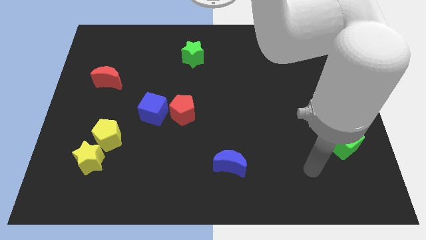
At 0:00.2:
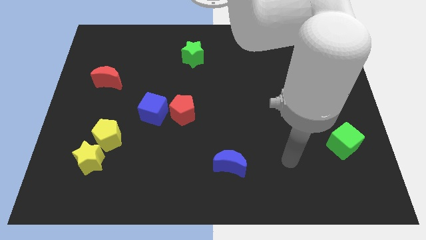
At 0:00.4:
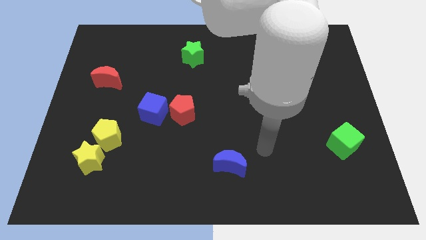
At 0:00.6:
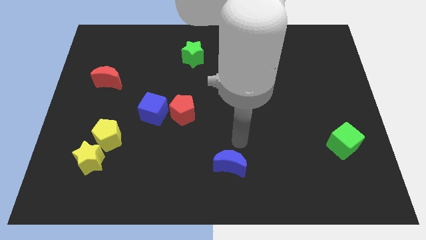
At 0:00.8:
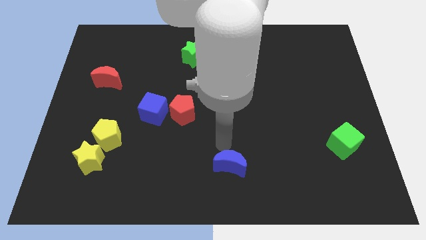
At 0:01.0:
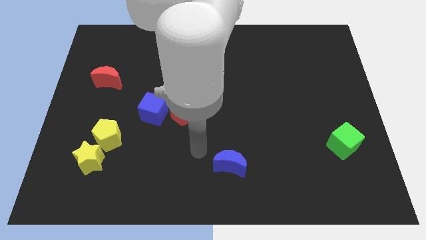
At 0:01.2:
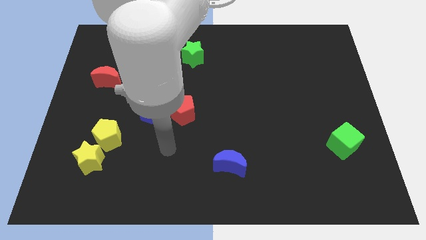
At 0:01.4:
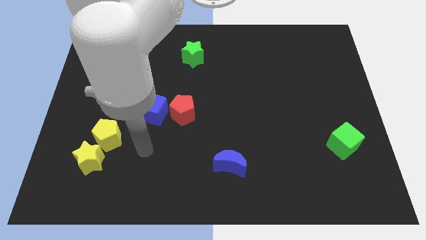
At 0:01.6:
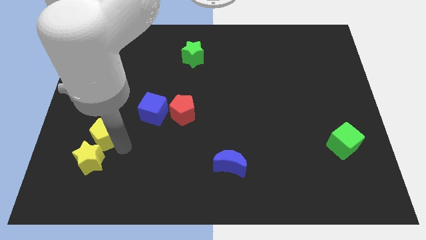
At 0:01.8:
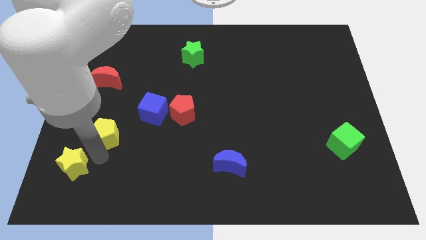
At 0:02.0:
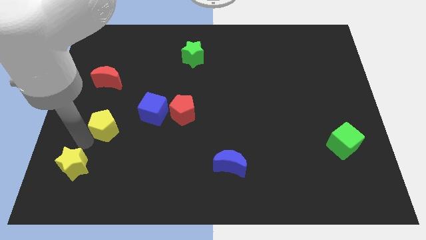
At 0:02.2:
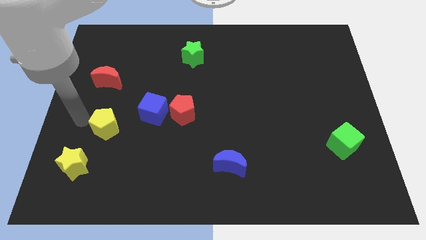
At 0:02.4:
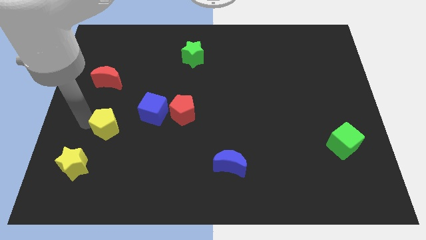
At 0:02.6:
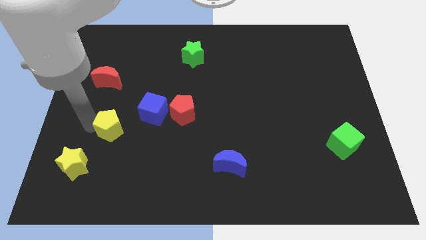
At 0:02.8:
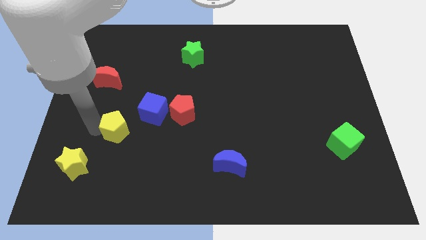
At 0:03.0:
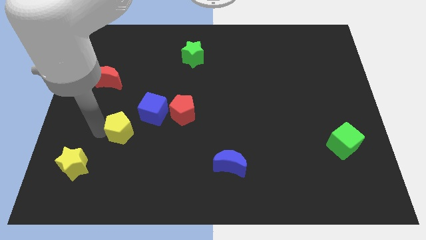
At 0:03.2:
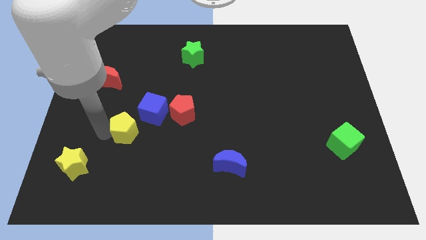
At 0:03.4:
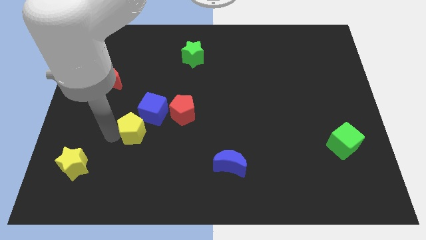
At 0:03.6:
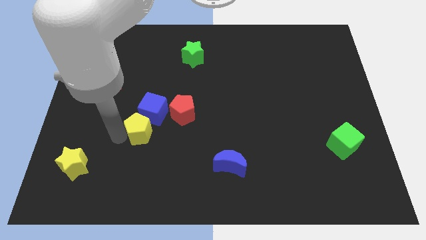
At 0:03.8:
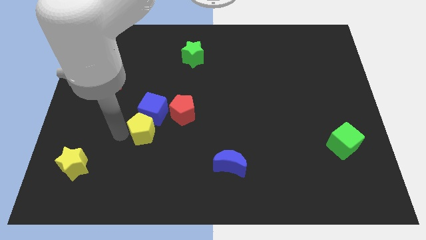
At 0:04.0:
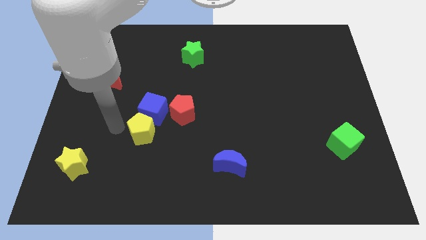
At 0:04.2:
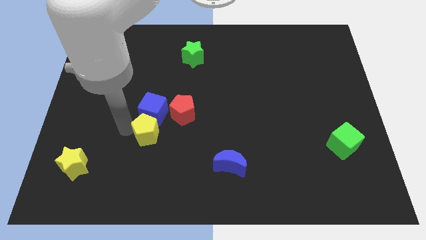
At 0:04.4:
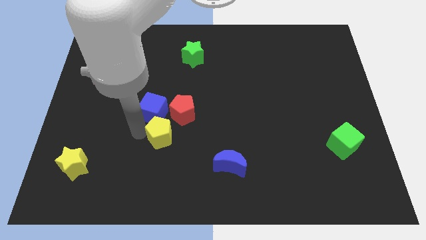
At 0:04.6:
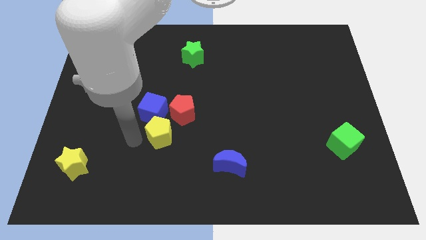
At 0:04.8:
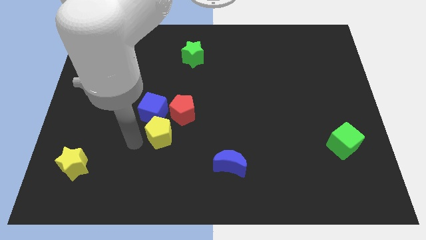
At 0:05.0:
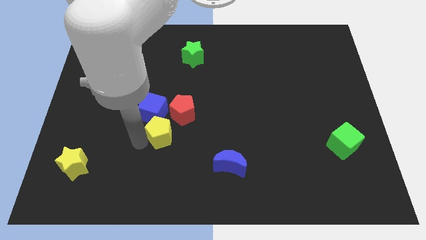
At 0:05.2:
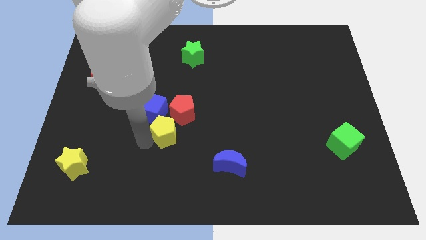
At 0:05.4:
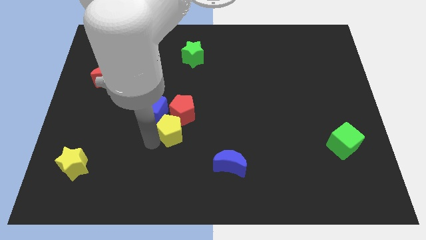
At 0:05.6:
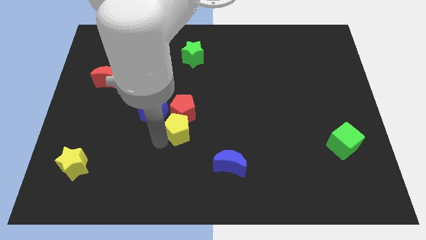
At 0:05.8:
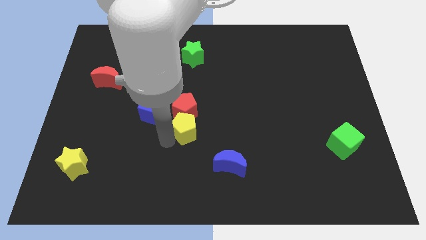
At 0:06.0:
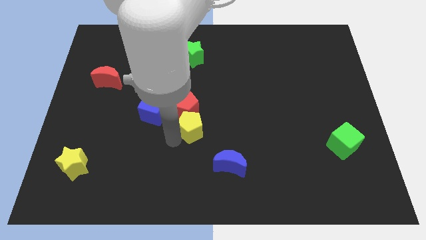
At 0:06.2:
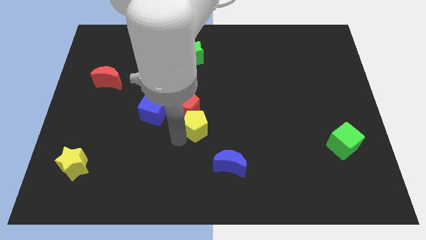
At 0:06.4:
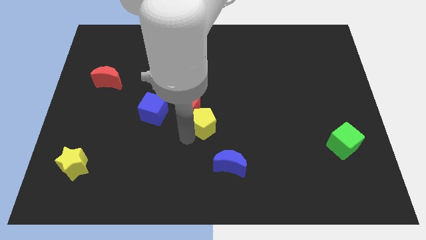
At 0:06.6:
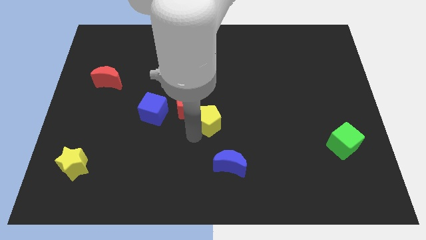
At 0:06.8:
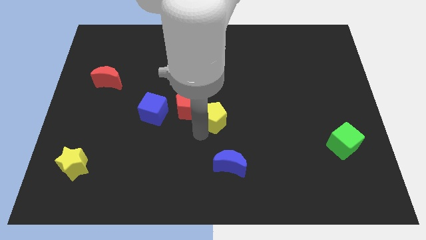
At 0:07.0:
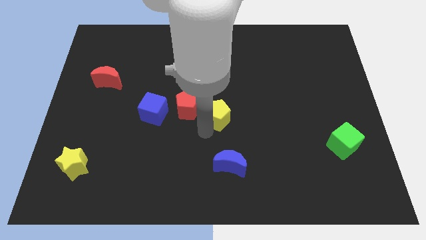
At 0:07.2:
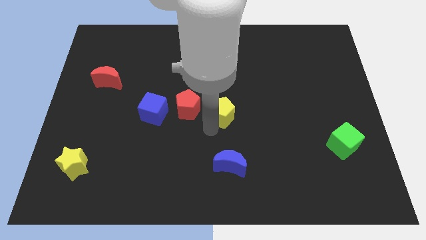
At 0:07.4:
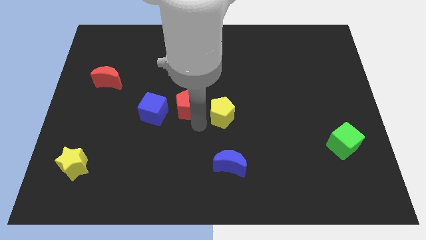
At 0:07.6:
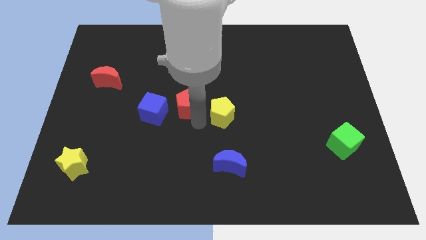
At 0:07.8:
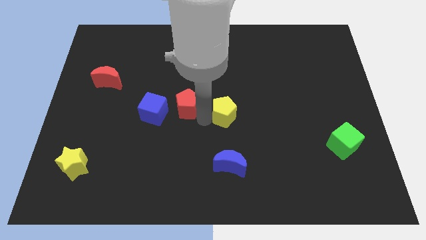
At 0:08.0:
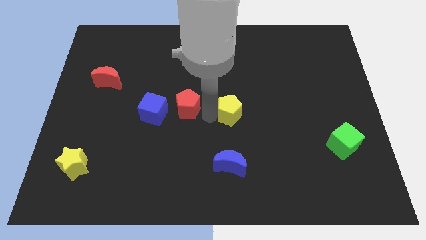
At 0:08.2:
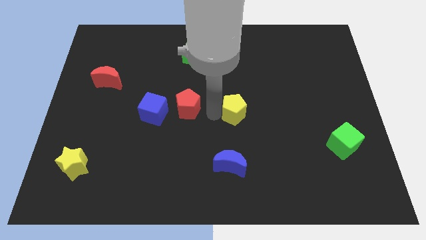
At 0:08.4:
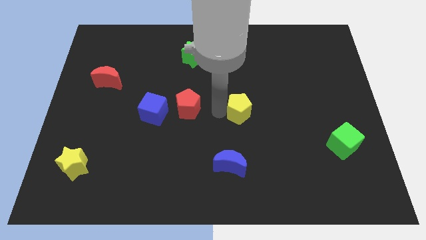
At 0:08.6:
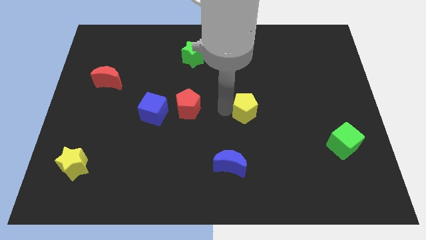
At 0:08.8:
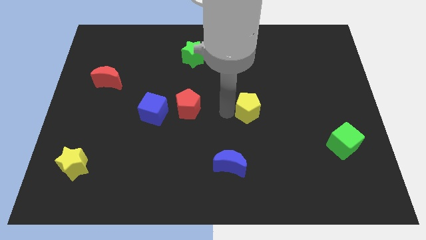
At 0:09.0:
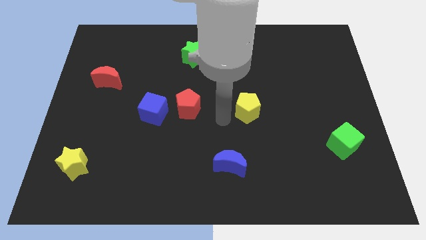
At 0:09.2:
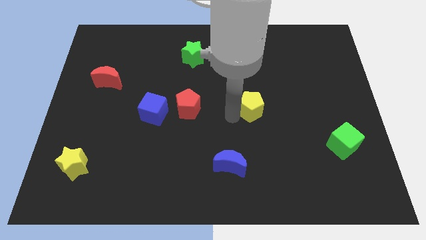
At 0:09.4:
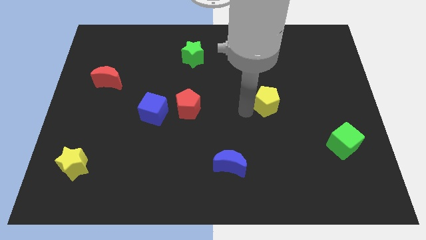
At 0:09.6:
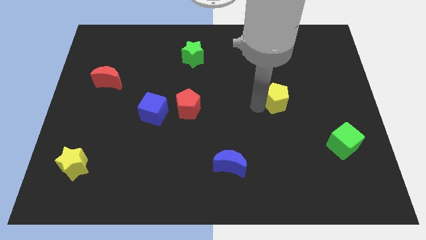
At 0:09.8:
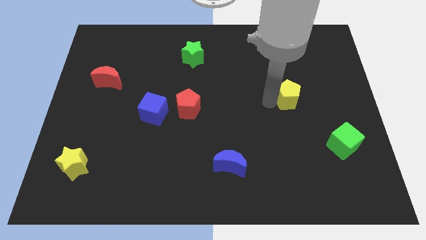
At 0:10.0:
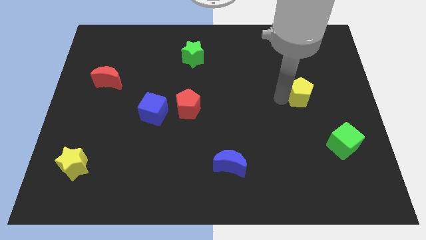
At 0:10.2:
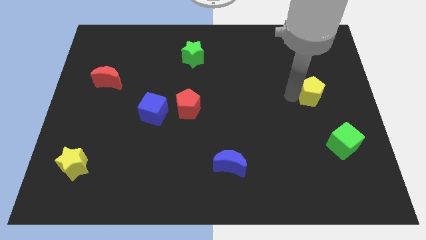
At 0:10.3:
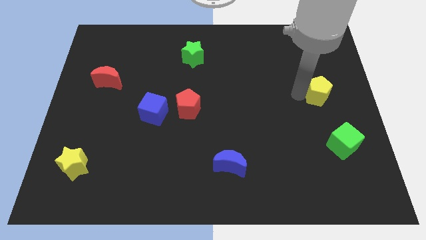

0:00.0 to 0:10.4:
put the yellow pentagon to the top side of the green cube

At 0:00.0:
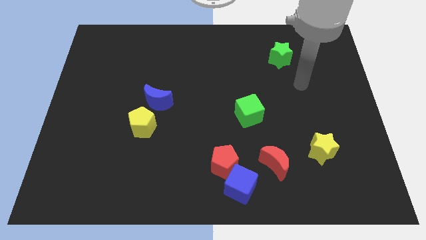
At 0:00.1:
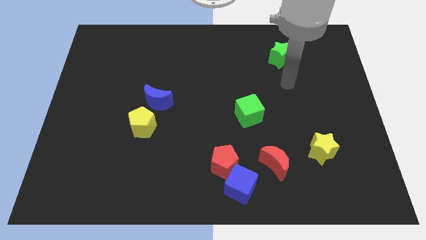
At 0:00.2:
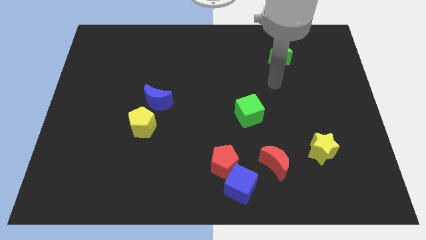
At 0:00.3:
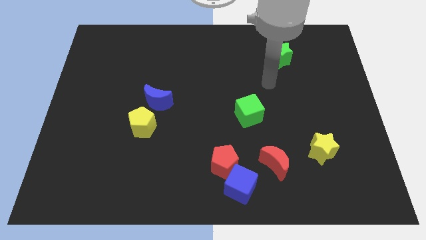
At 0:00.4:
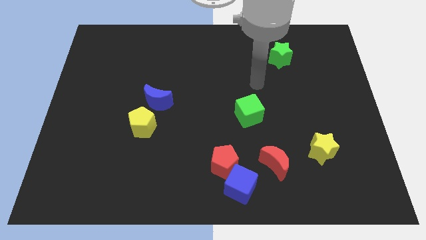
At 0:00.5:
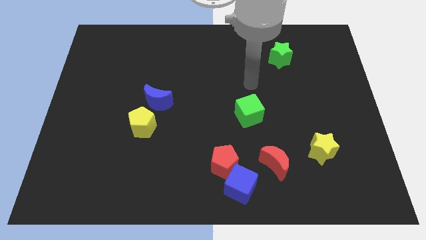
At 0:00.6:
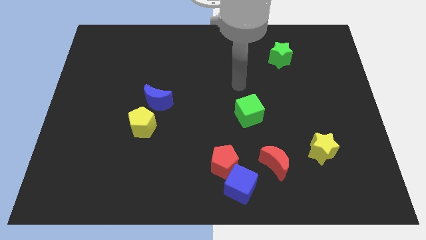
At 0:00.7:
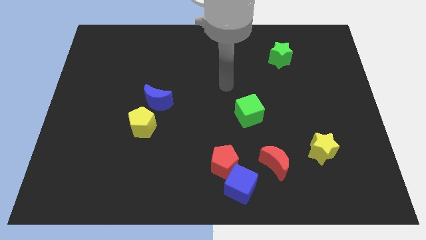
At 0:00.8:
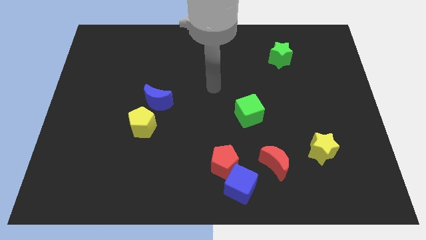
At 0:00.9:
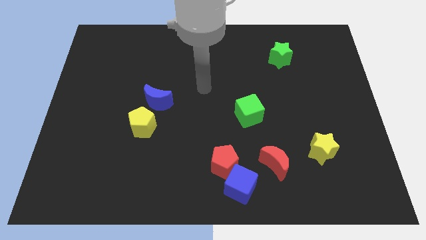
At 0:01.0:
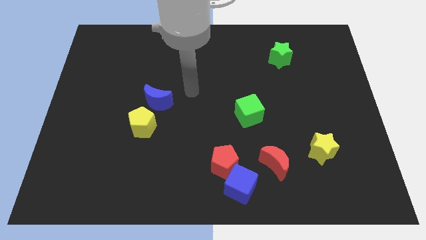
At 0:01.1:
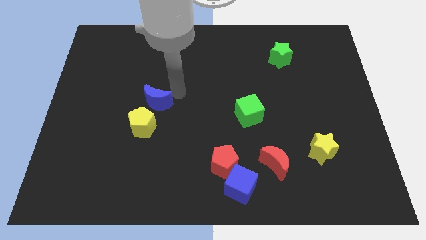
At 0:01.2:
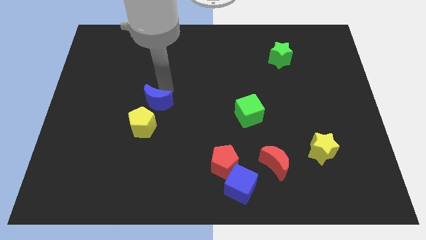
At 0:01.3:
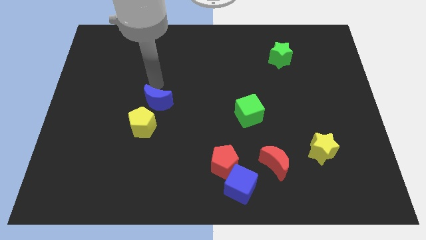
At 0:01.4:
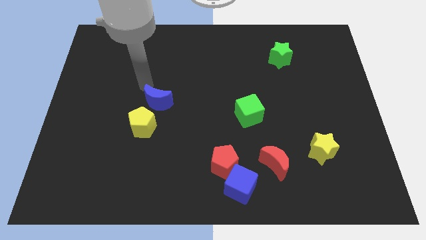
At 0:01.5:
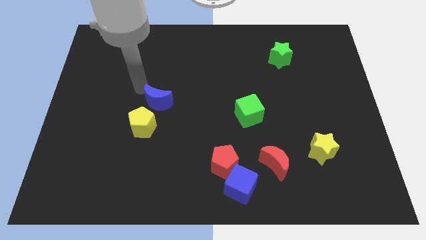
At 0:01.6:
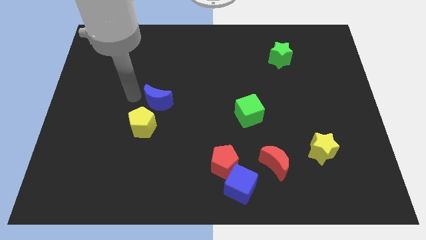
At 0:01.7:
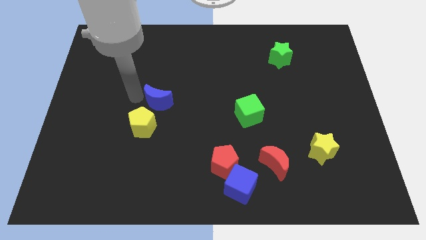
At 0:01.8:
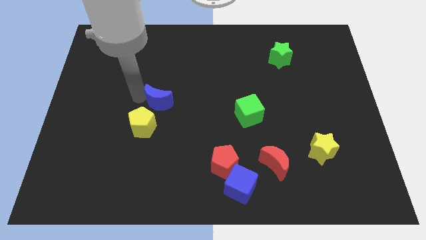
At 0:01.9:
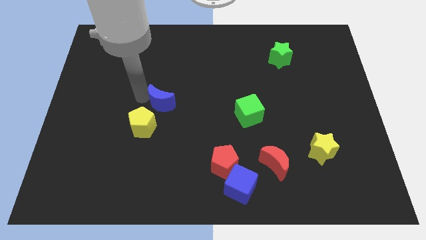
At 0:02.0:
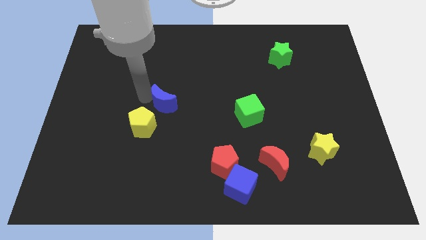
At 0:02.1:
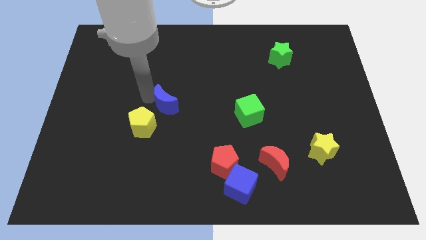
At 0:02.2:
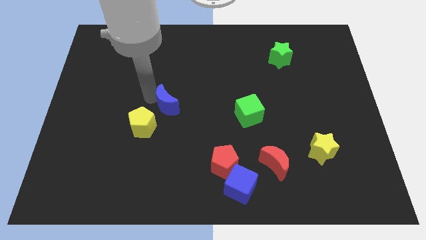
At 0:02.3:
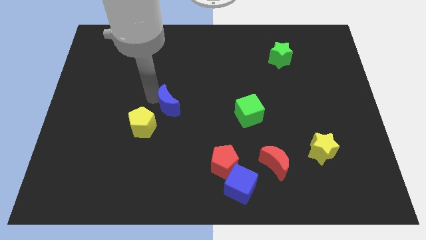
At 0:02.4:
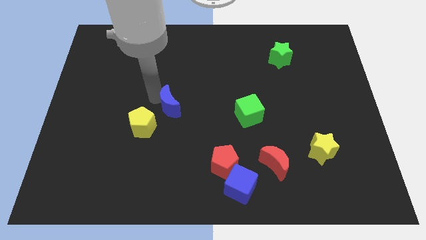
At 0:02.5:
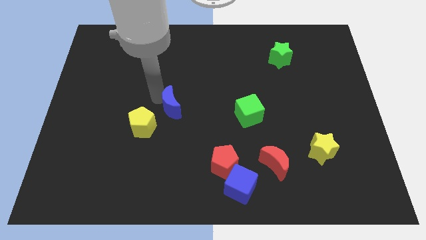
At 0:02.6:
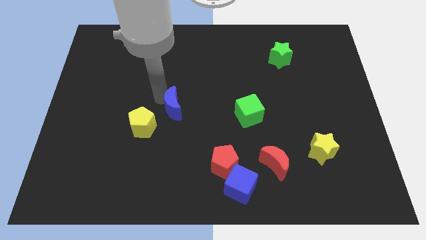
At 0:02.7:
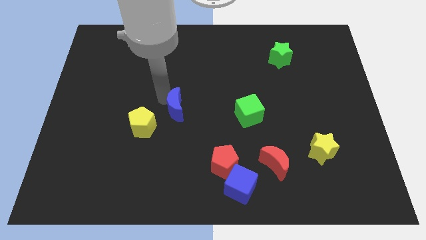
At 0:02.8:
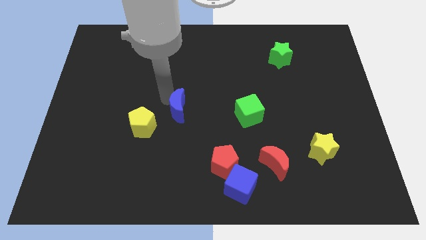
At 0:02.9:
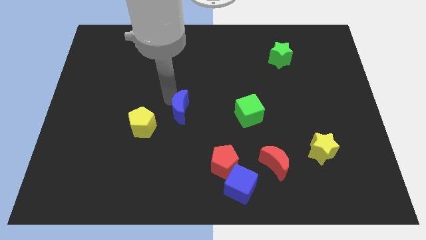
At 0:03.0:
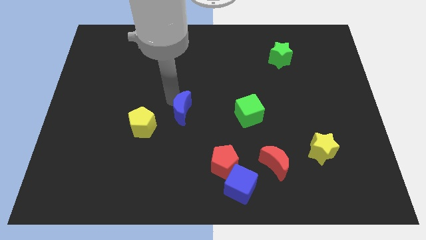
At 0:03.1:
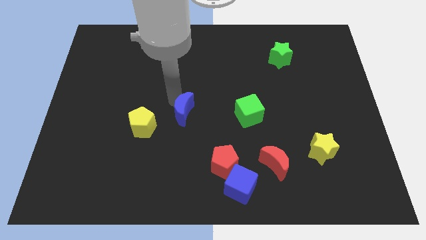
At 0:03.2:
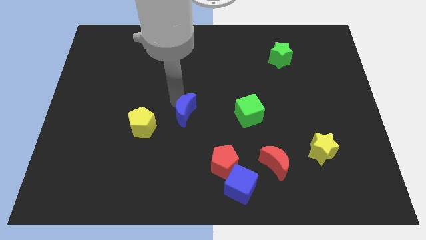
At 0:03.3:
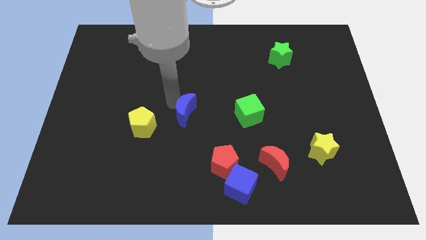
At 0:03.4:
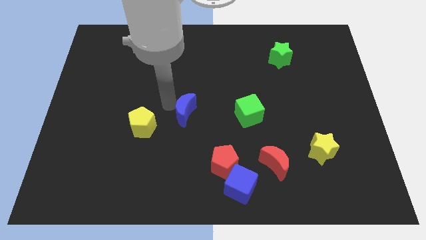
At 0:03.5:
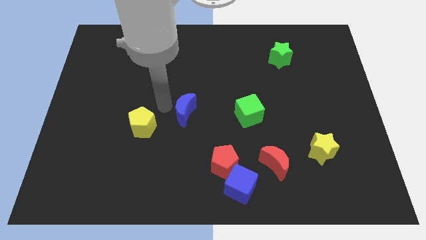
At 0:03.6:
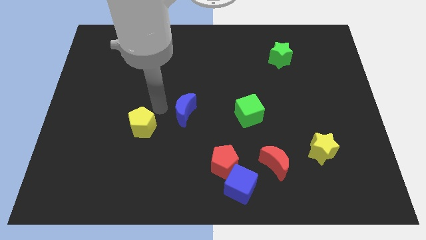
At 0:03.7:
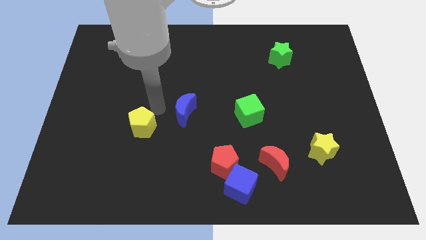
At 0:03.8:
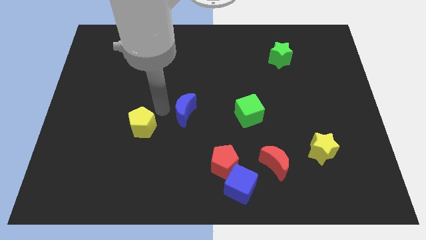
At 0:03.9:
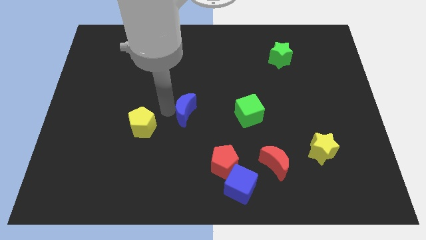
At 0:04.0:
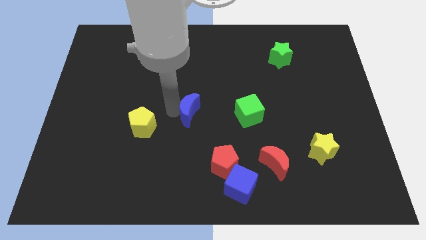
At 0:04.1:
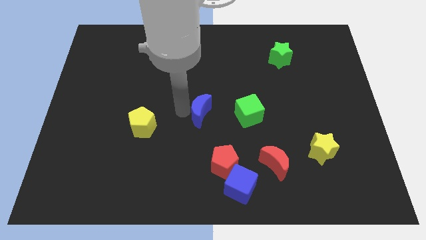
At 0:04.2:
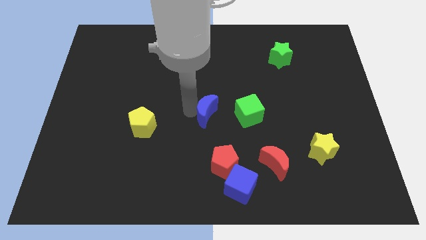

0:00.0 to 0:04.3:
push the blue moon above the red pentagon
